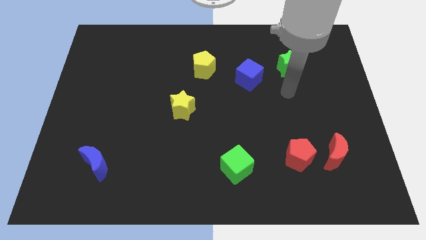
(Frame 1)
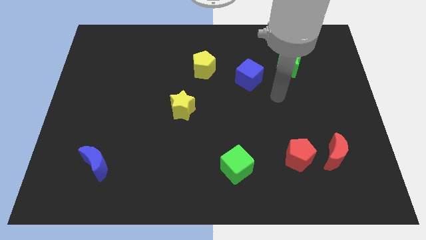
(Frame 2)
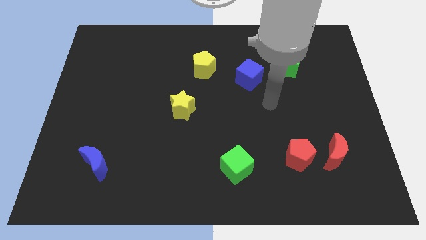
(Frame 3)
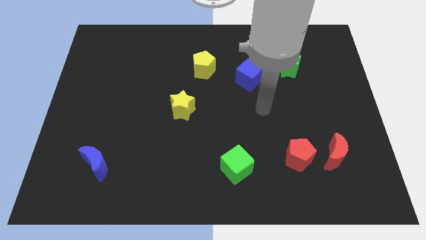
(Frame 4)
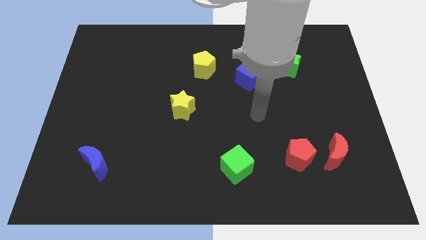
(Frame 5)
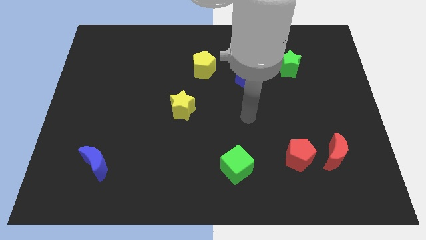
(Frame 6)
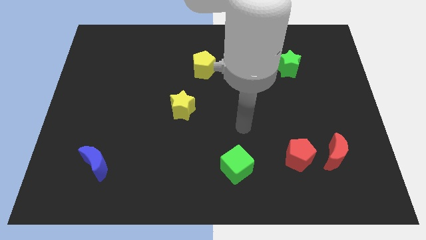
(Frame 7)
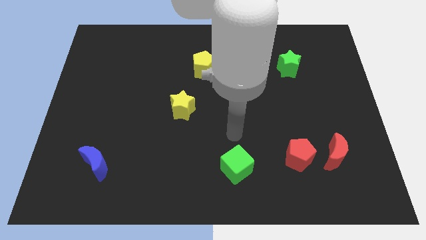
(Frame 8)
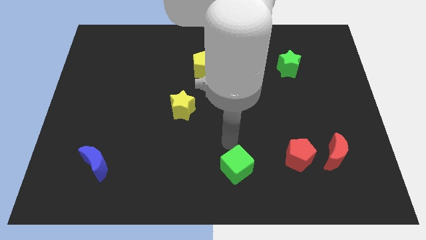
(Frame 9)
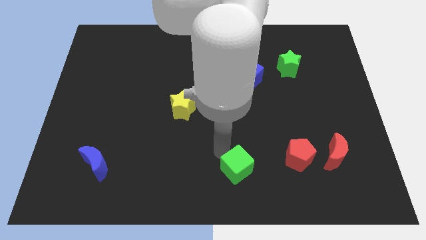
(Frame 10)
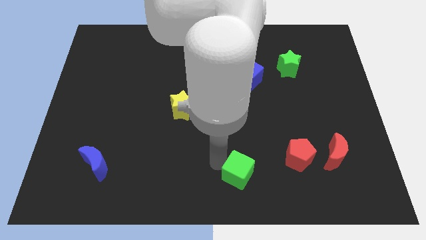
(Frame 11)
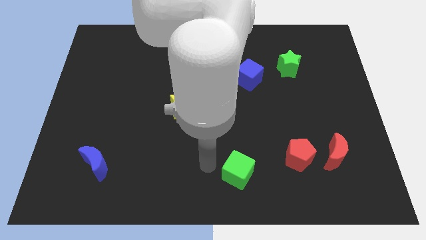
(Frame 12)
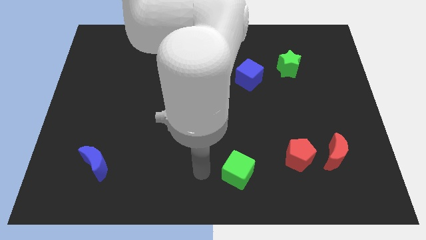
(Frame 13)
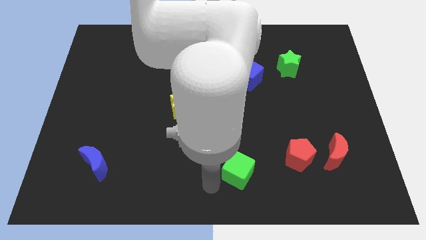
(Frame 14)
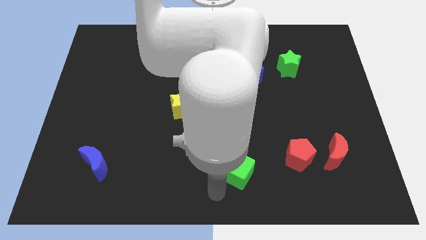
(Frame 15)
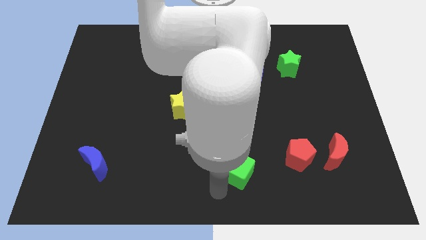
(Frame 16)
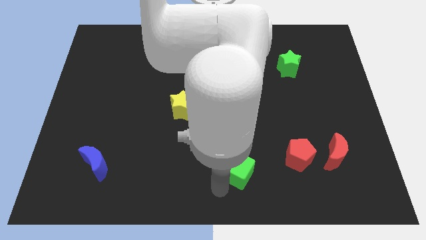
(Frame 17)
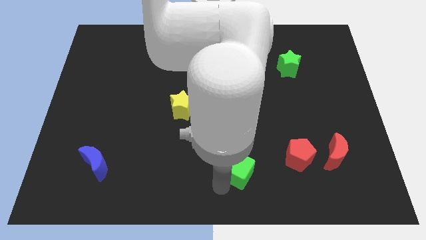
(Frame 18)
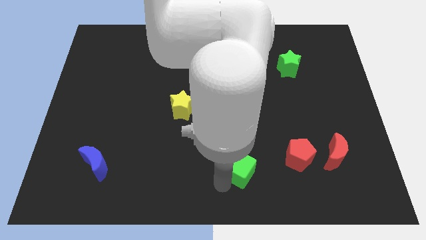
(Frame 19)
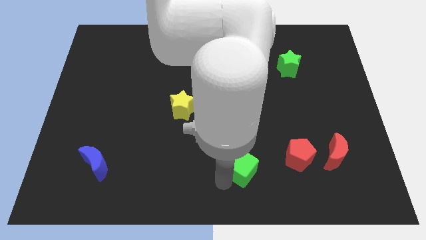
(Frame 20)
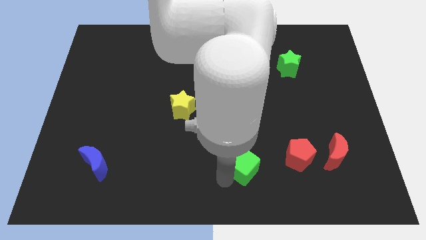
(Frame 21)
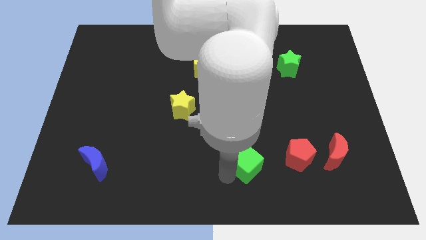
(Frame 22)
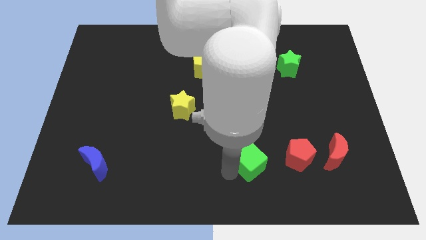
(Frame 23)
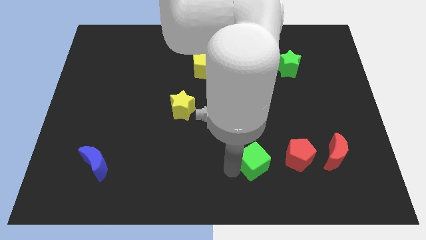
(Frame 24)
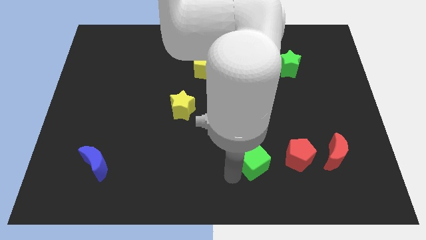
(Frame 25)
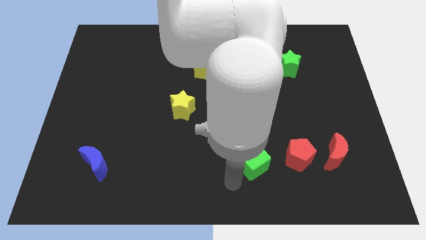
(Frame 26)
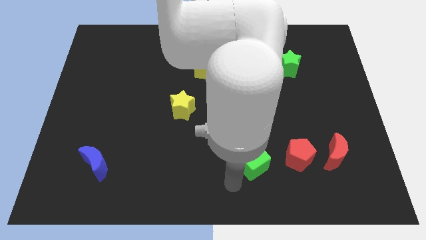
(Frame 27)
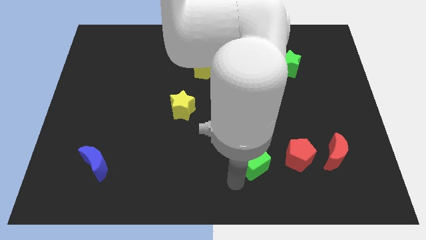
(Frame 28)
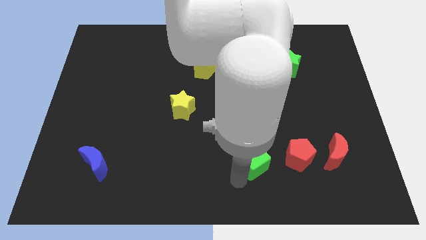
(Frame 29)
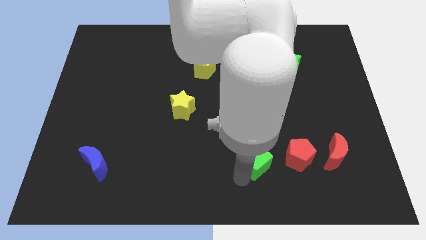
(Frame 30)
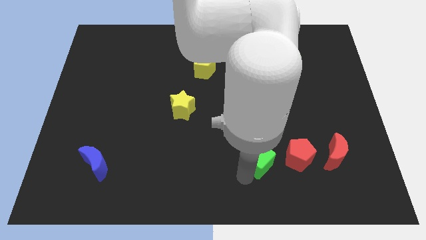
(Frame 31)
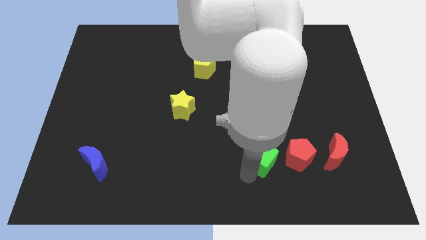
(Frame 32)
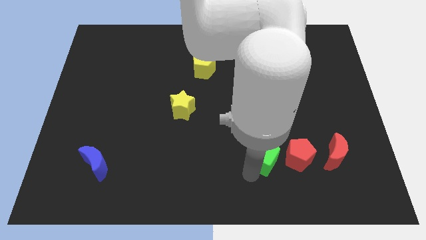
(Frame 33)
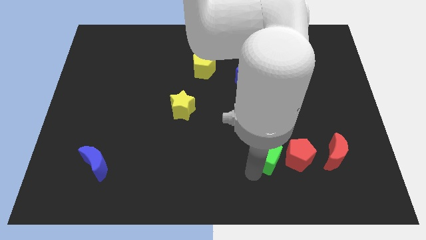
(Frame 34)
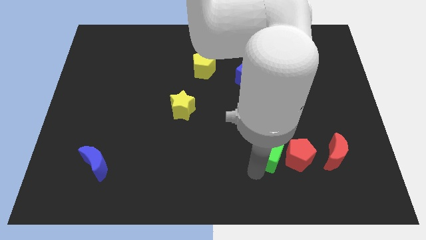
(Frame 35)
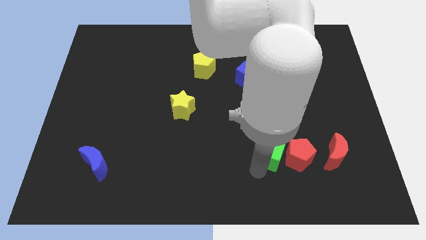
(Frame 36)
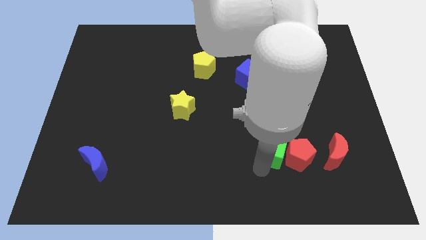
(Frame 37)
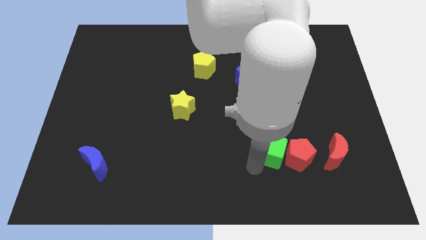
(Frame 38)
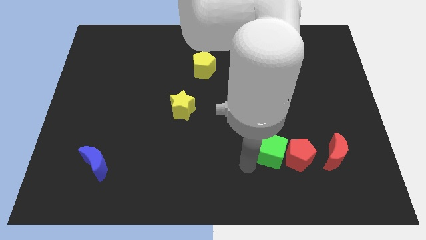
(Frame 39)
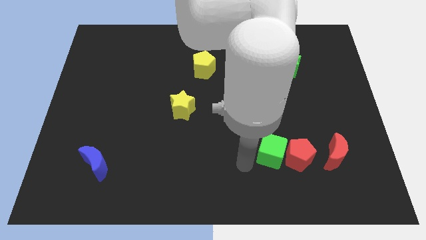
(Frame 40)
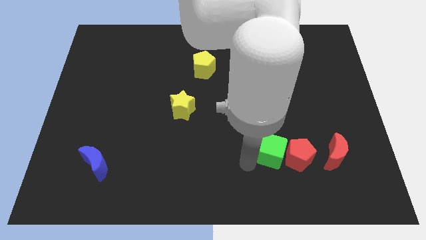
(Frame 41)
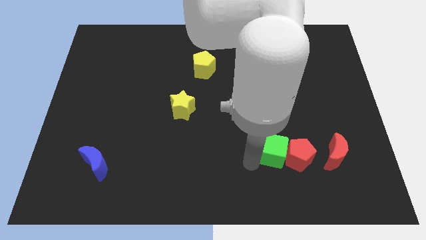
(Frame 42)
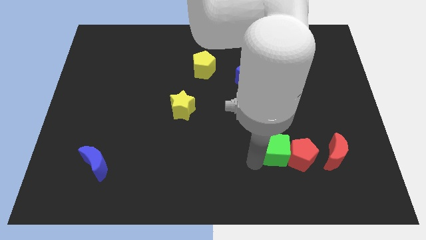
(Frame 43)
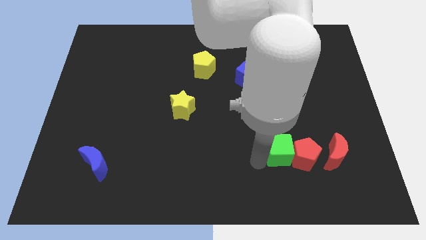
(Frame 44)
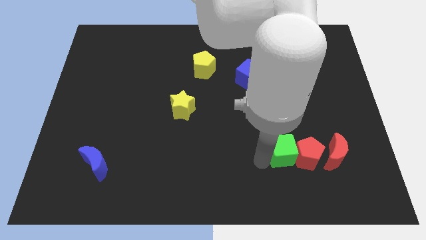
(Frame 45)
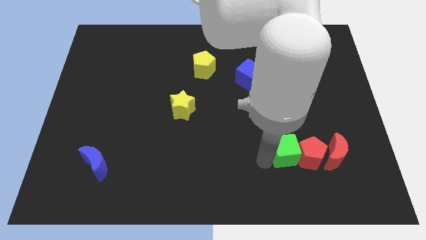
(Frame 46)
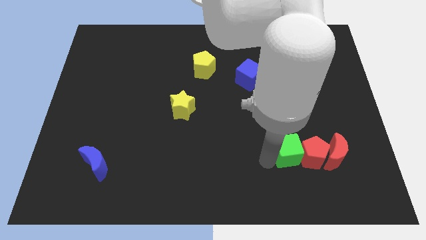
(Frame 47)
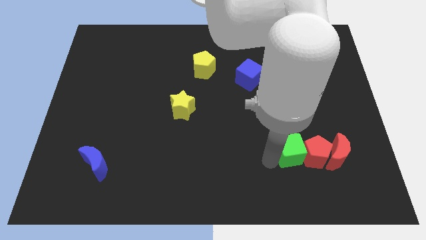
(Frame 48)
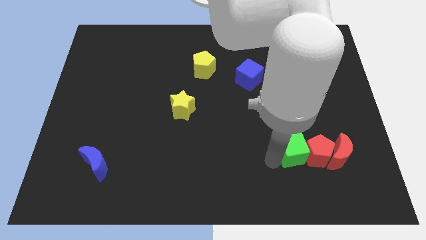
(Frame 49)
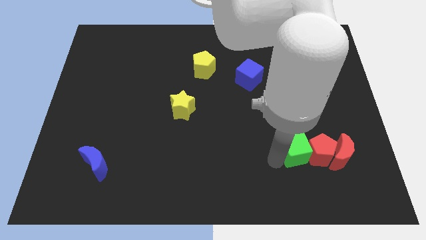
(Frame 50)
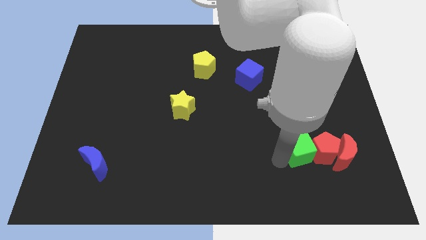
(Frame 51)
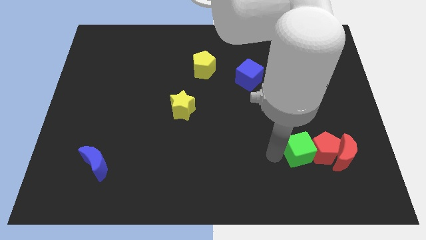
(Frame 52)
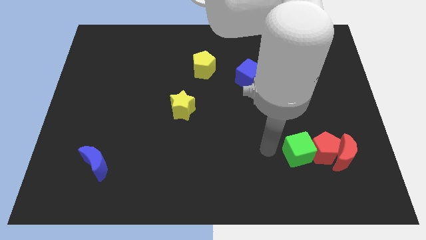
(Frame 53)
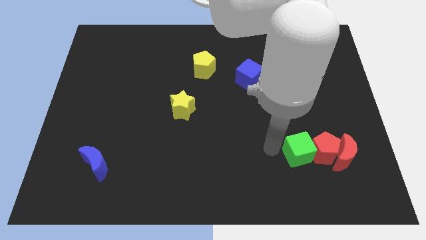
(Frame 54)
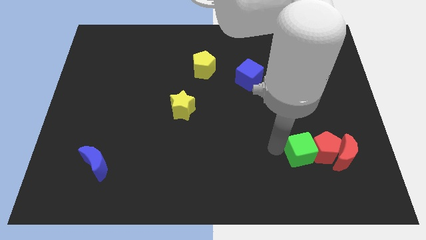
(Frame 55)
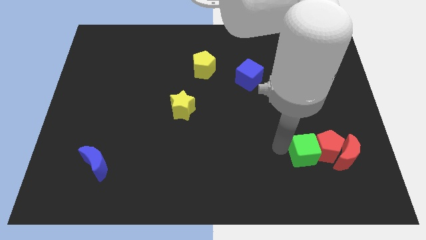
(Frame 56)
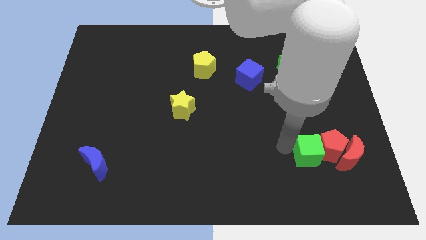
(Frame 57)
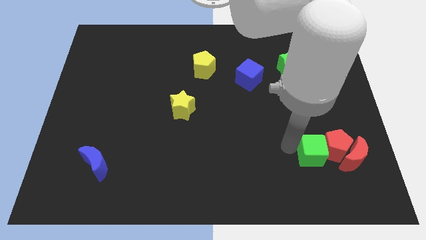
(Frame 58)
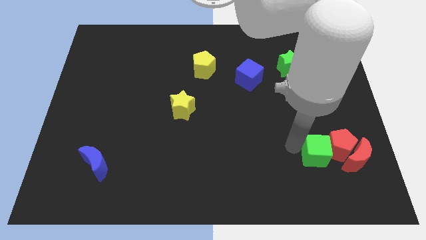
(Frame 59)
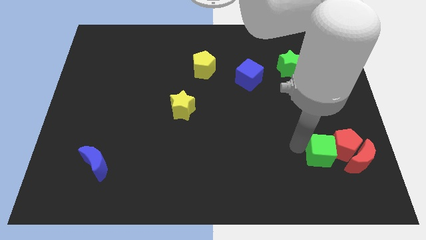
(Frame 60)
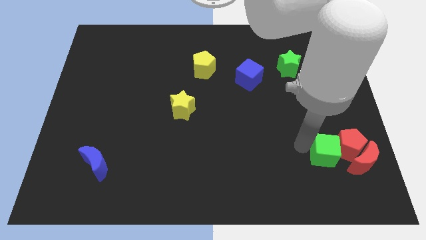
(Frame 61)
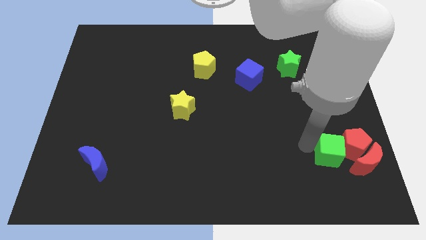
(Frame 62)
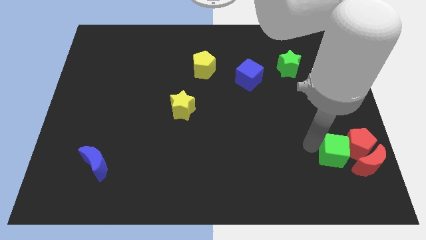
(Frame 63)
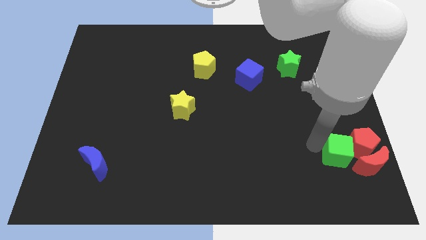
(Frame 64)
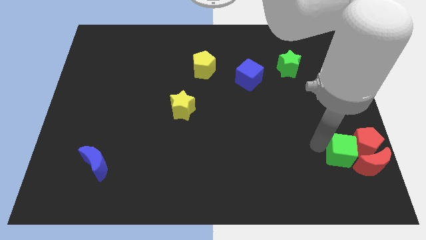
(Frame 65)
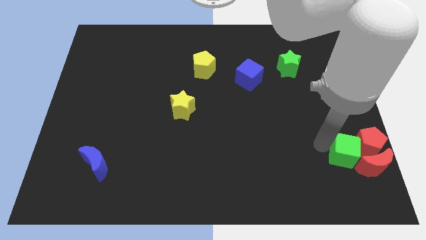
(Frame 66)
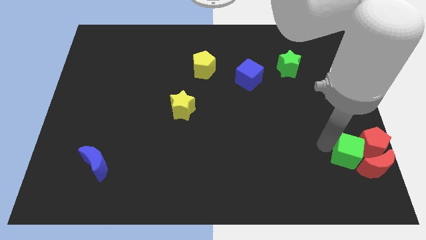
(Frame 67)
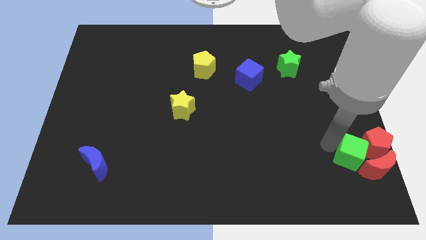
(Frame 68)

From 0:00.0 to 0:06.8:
put the green cube to the red moon

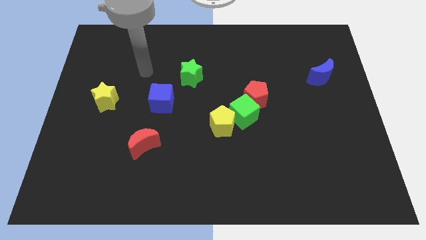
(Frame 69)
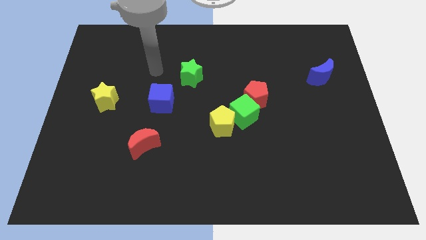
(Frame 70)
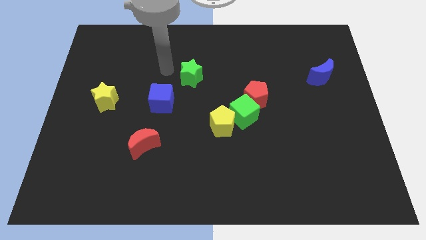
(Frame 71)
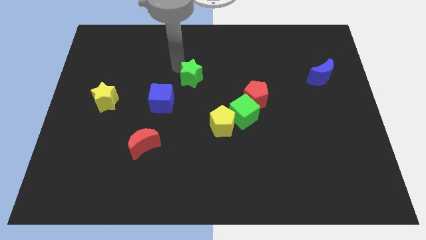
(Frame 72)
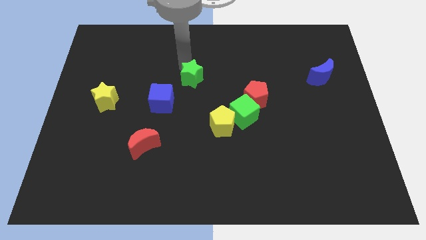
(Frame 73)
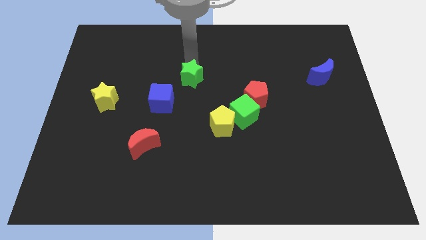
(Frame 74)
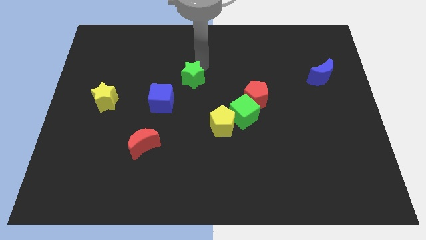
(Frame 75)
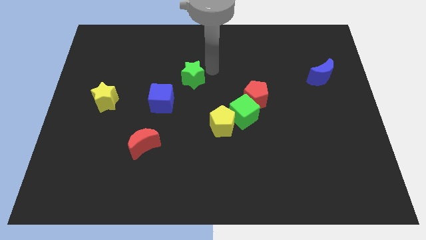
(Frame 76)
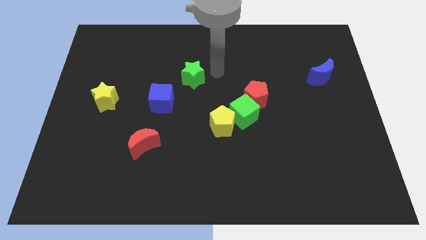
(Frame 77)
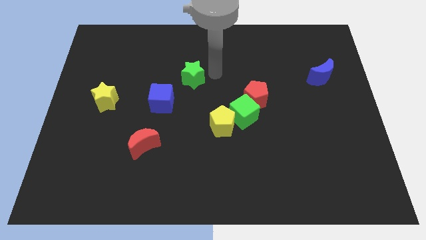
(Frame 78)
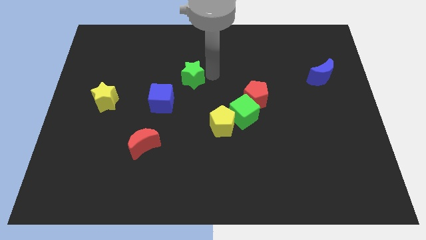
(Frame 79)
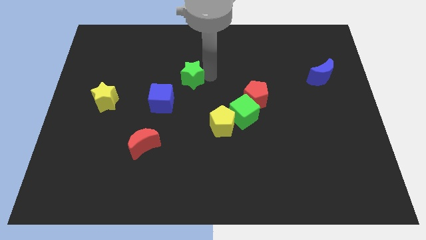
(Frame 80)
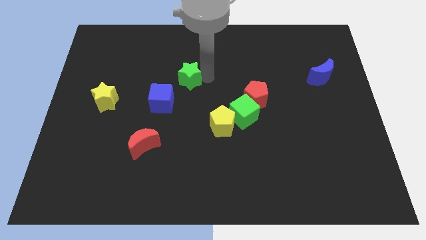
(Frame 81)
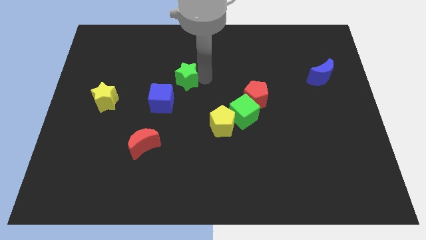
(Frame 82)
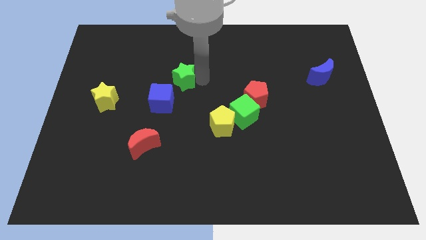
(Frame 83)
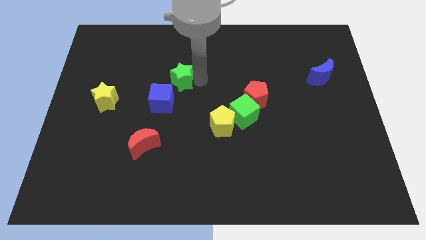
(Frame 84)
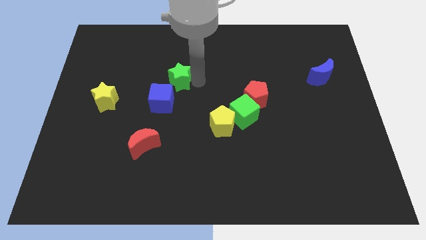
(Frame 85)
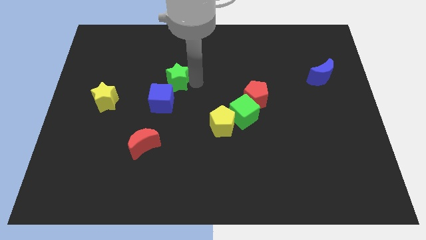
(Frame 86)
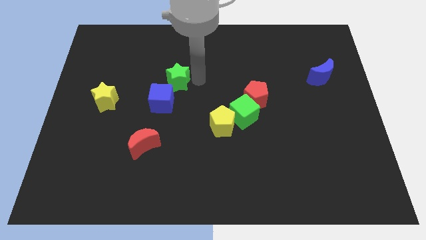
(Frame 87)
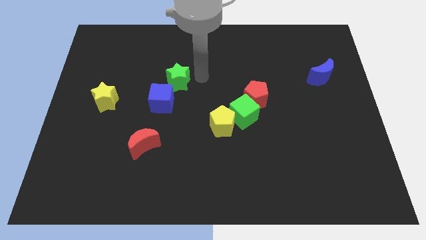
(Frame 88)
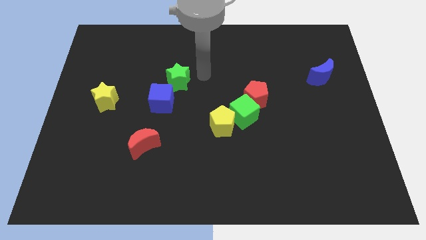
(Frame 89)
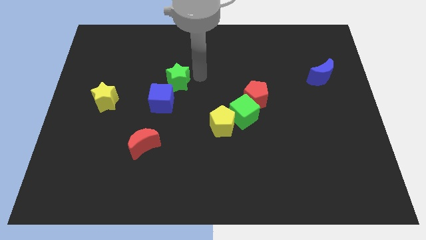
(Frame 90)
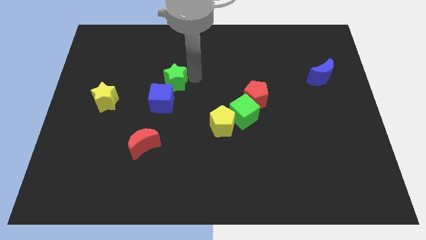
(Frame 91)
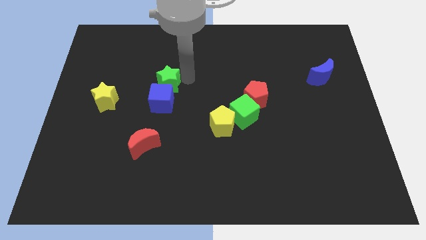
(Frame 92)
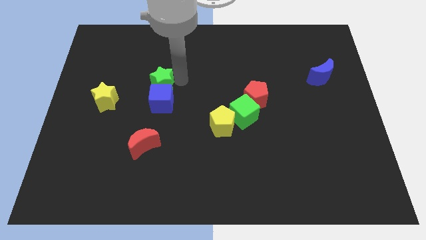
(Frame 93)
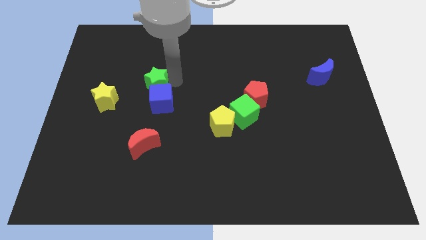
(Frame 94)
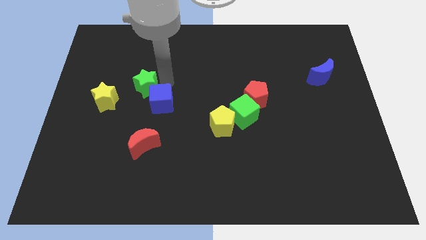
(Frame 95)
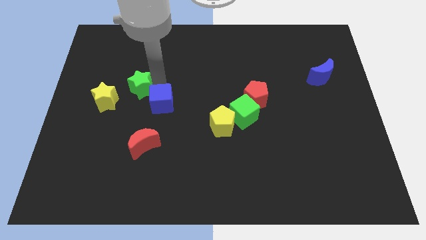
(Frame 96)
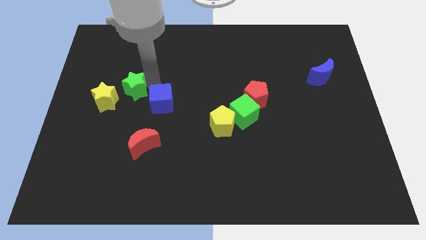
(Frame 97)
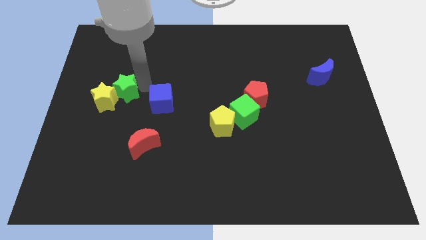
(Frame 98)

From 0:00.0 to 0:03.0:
move the green star towards the yellow star
